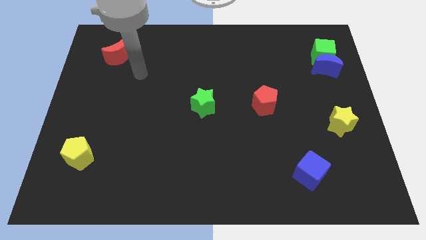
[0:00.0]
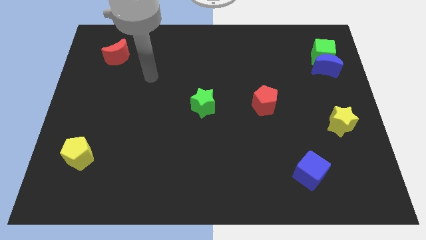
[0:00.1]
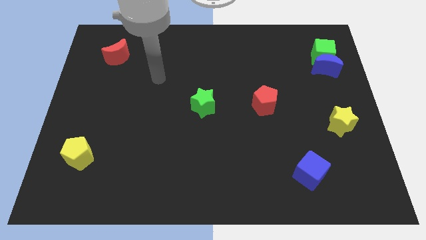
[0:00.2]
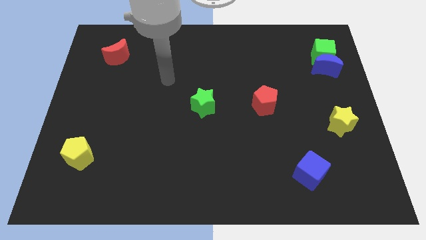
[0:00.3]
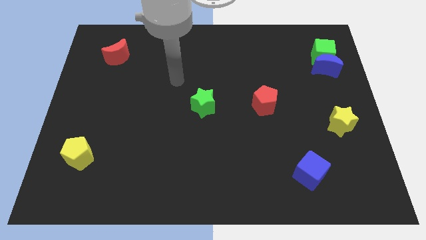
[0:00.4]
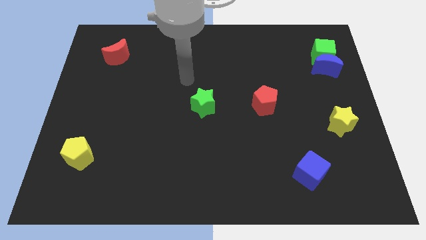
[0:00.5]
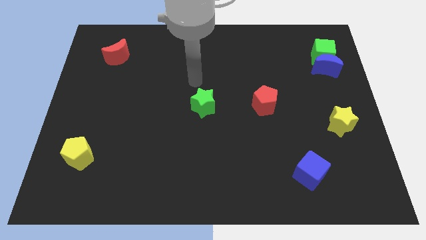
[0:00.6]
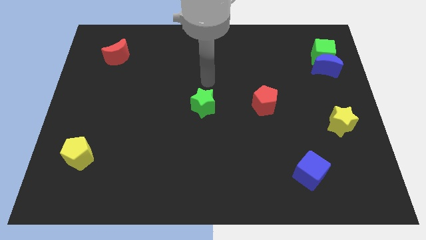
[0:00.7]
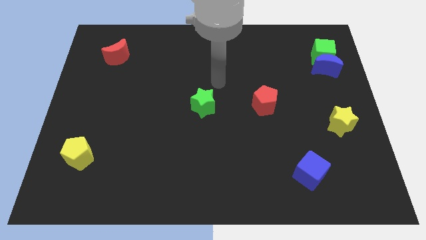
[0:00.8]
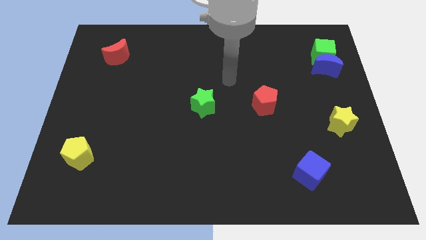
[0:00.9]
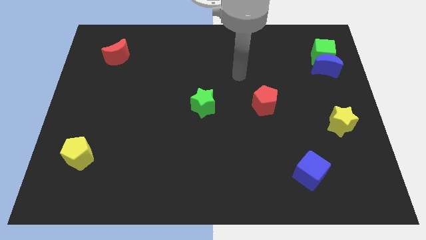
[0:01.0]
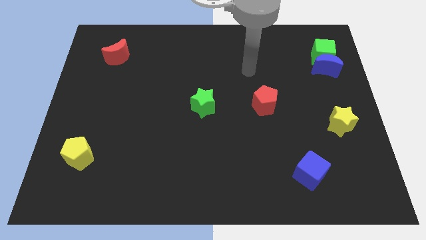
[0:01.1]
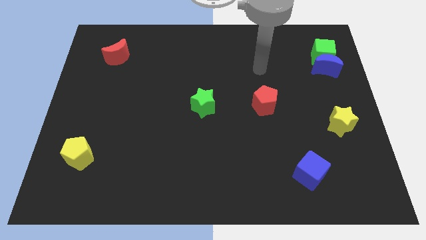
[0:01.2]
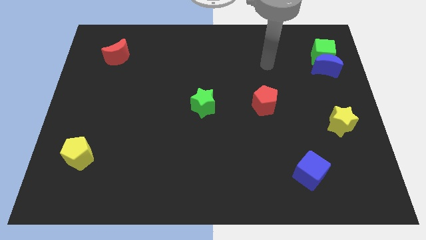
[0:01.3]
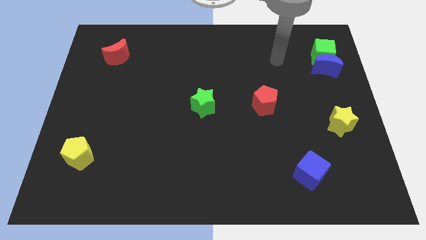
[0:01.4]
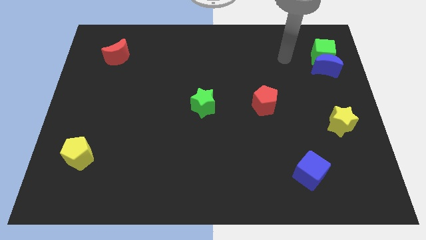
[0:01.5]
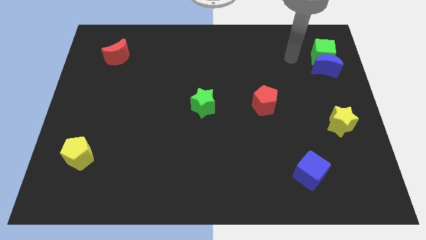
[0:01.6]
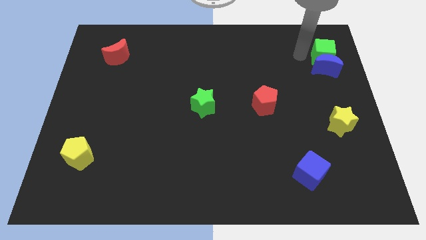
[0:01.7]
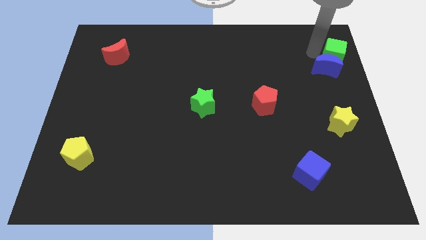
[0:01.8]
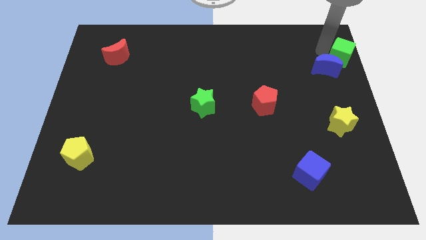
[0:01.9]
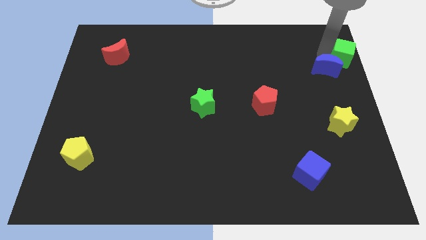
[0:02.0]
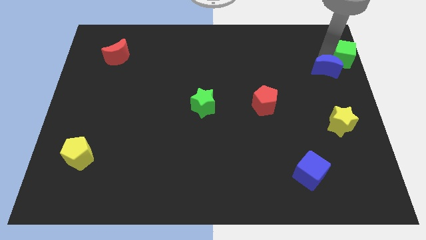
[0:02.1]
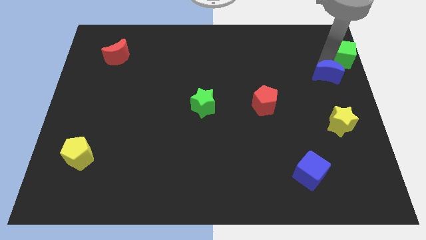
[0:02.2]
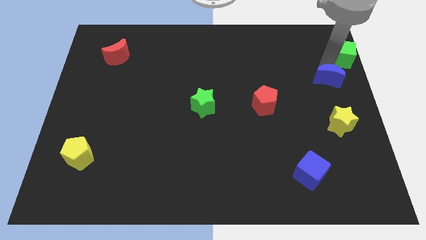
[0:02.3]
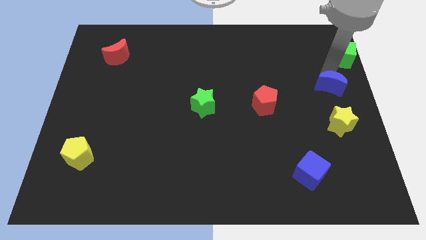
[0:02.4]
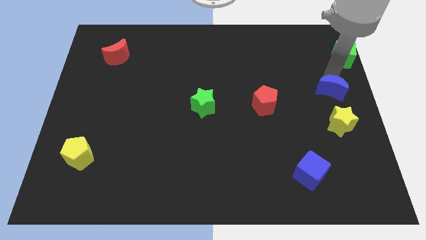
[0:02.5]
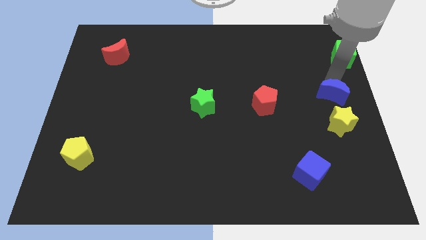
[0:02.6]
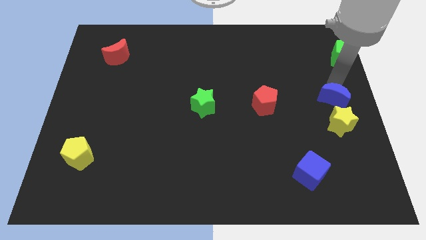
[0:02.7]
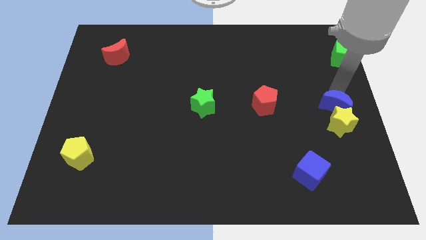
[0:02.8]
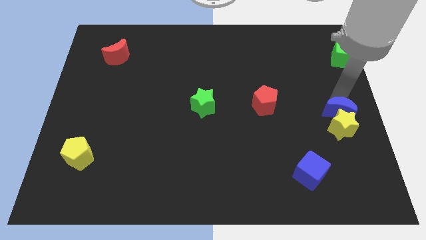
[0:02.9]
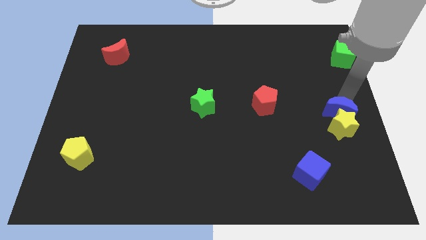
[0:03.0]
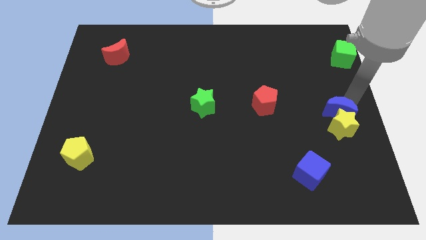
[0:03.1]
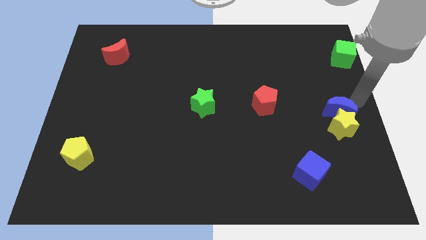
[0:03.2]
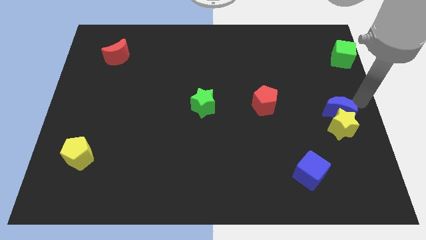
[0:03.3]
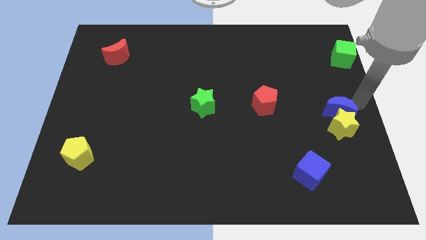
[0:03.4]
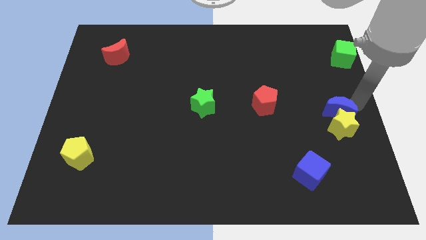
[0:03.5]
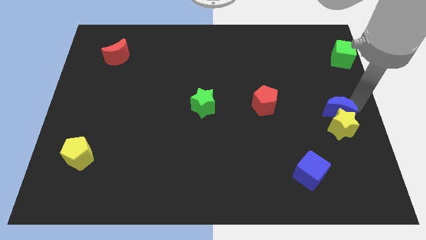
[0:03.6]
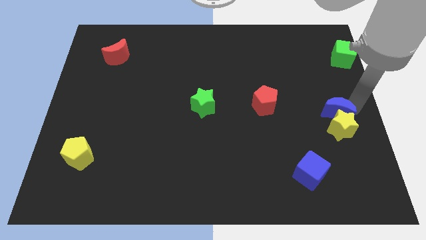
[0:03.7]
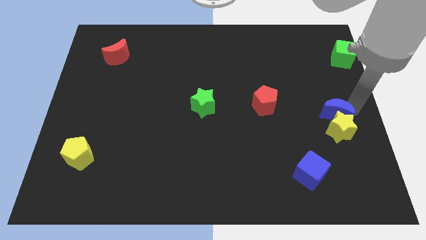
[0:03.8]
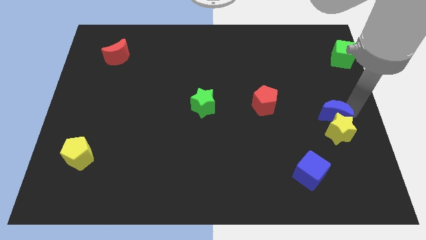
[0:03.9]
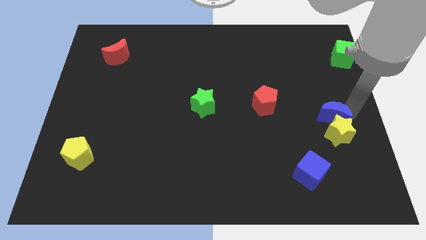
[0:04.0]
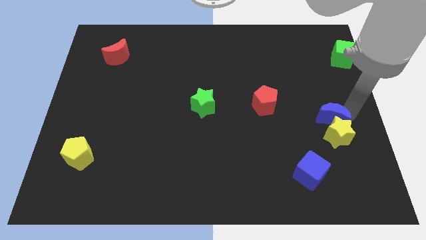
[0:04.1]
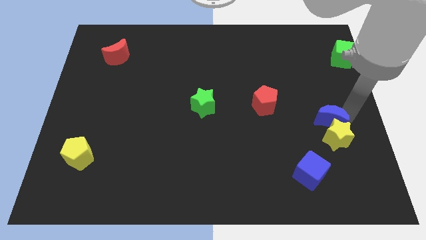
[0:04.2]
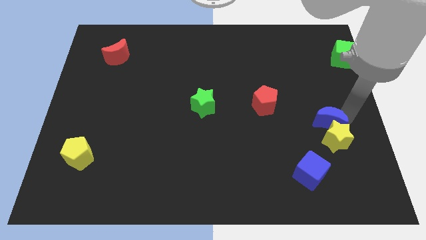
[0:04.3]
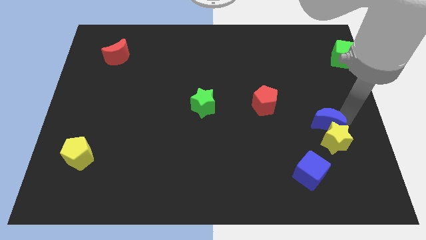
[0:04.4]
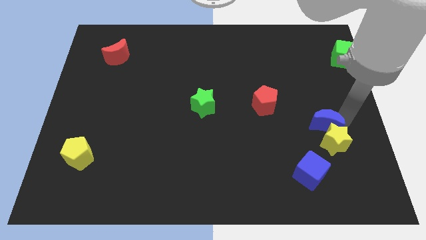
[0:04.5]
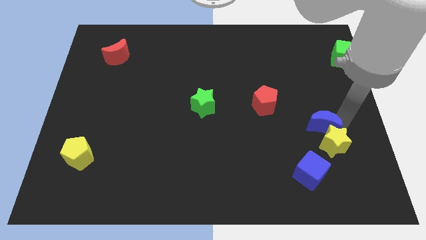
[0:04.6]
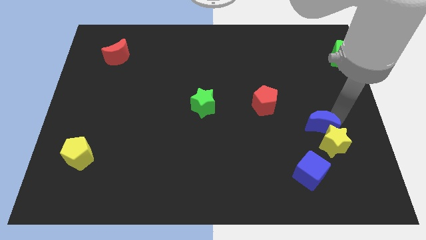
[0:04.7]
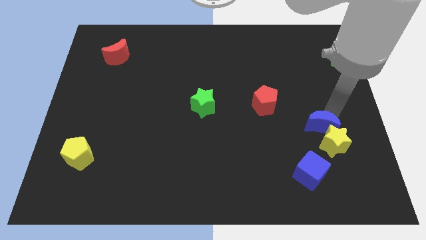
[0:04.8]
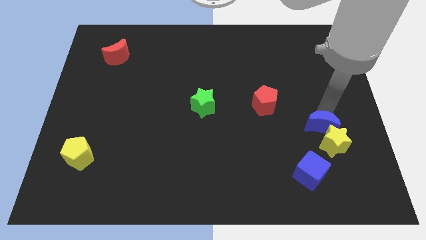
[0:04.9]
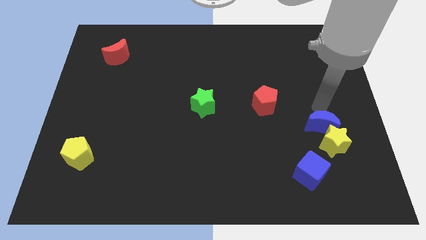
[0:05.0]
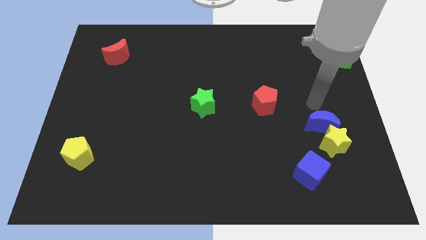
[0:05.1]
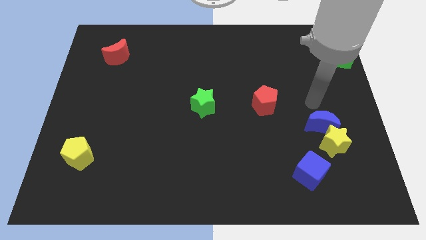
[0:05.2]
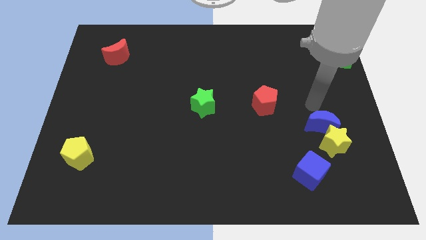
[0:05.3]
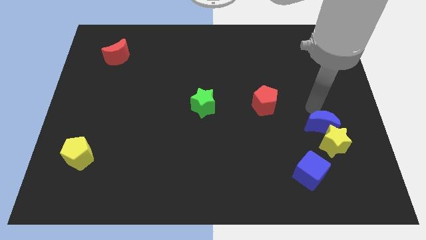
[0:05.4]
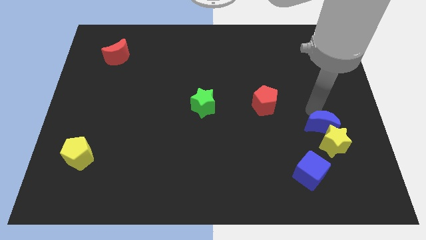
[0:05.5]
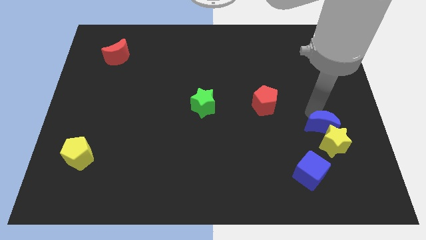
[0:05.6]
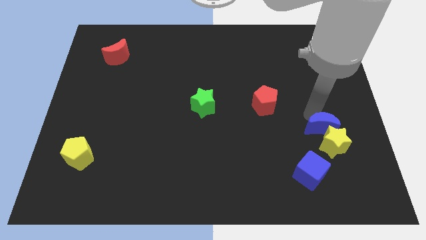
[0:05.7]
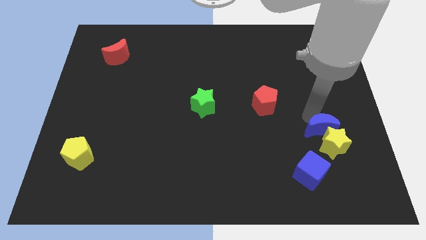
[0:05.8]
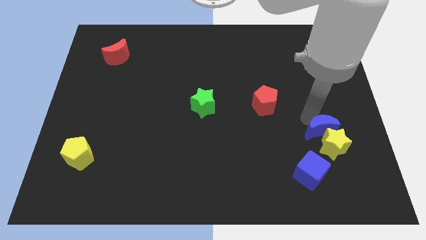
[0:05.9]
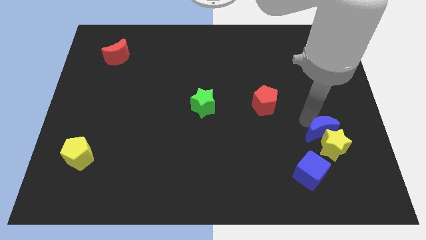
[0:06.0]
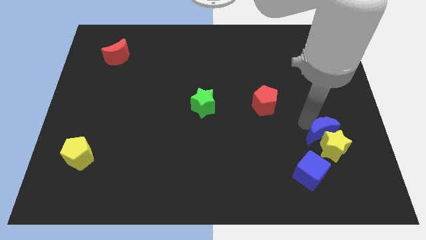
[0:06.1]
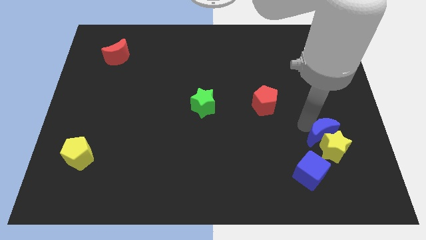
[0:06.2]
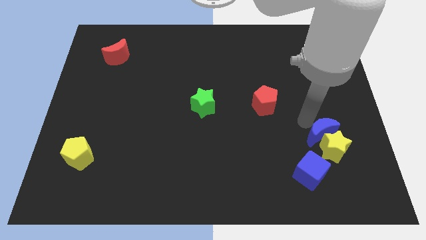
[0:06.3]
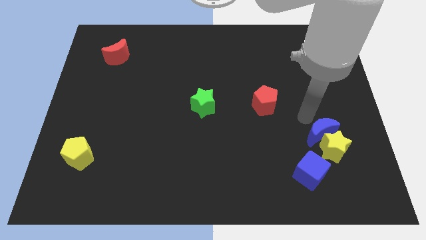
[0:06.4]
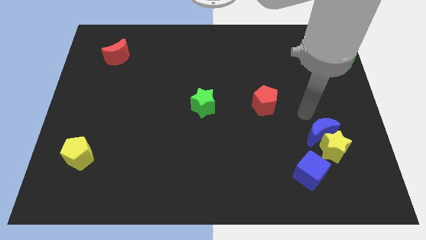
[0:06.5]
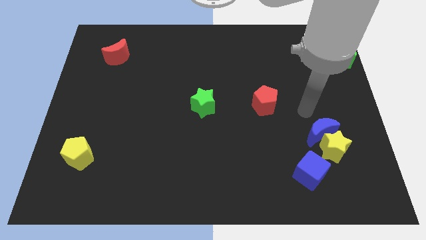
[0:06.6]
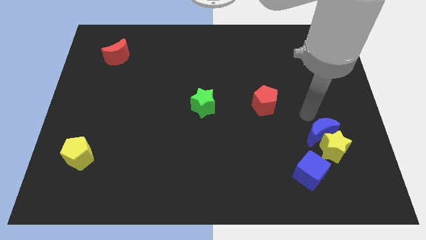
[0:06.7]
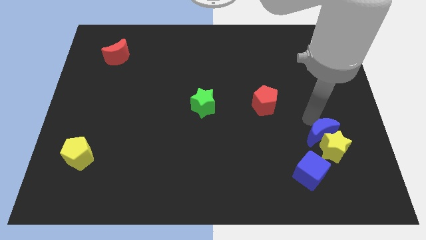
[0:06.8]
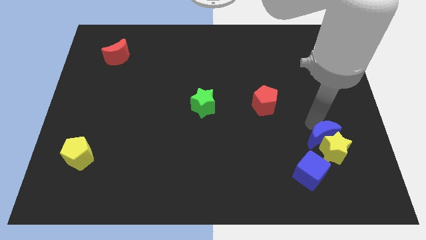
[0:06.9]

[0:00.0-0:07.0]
slide the blue moon down

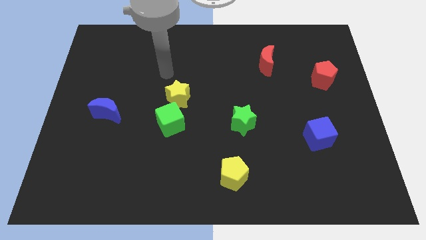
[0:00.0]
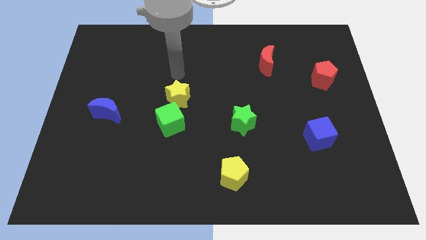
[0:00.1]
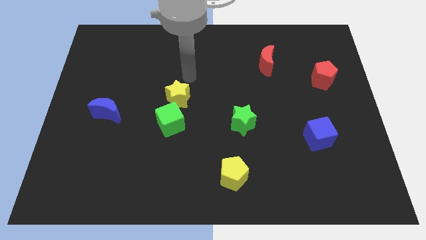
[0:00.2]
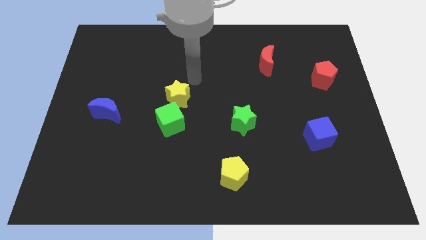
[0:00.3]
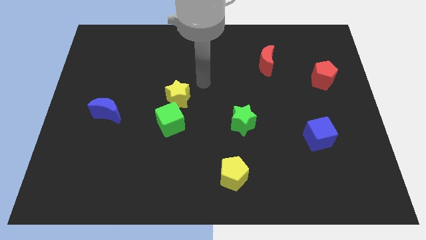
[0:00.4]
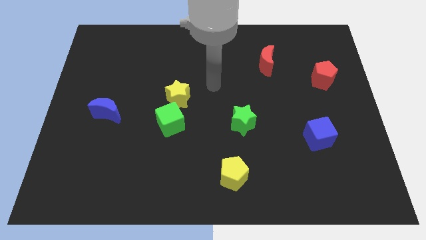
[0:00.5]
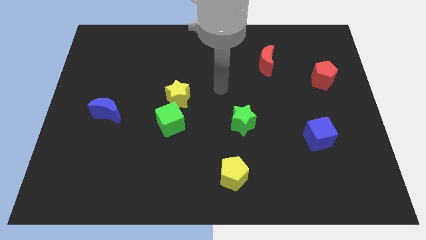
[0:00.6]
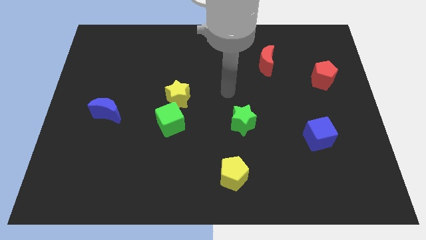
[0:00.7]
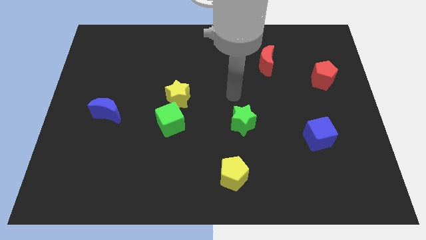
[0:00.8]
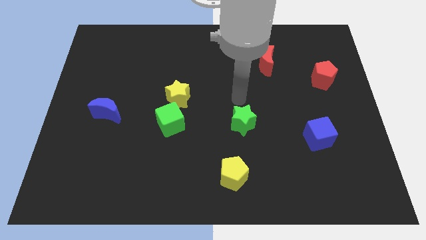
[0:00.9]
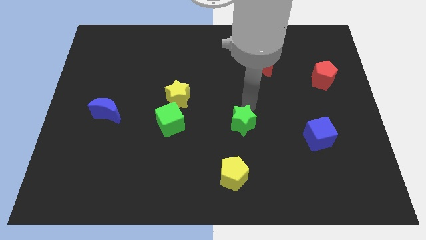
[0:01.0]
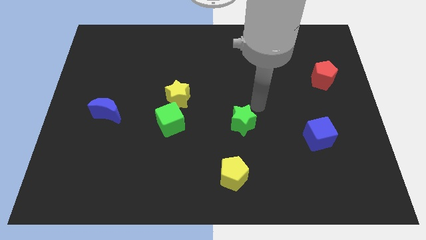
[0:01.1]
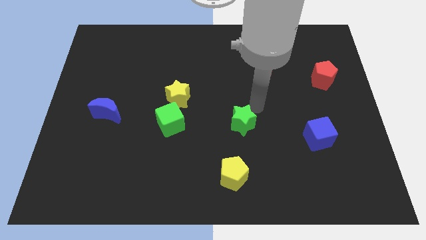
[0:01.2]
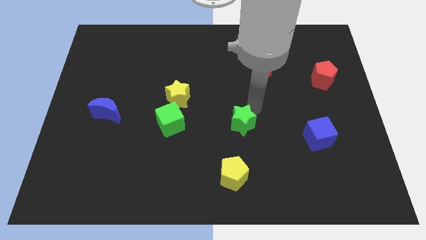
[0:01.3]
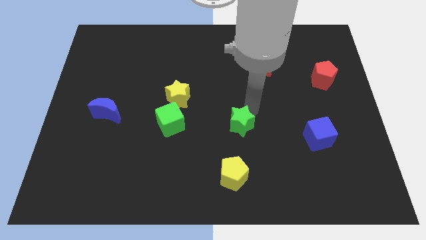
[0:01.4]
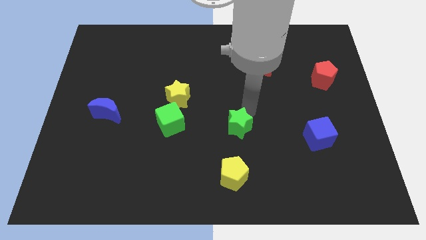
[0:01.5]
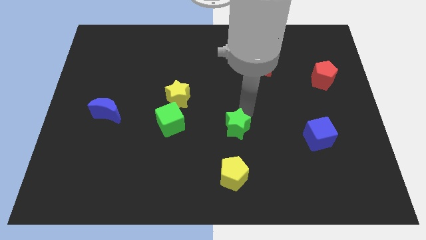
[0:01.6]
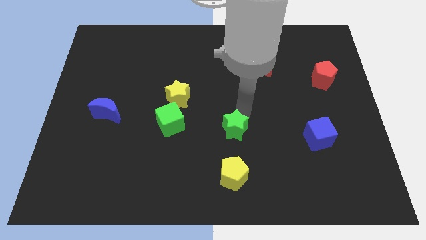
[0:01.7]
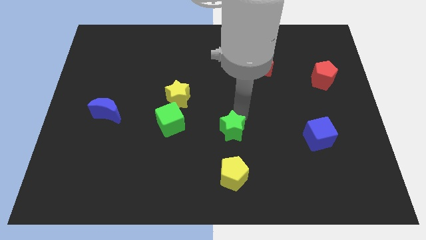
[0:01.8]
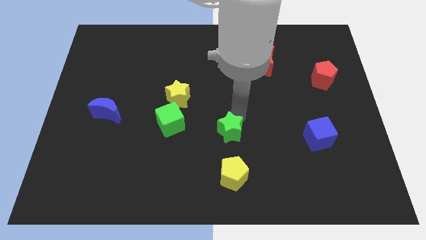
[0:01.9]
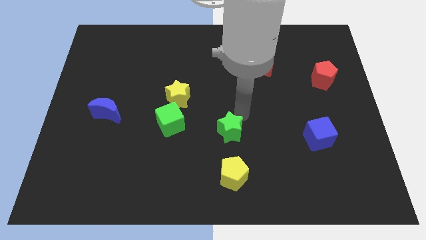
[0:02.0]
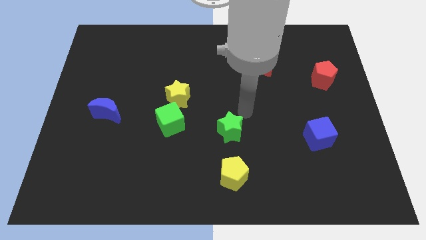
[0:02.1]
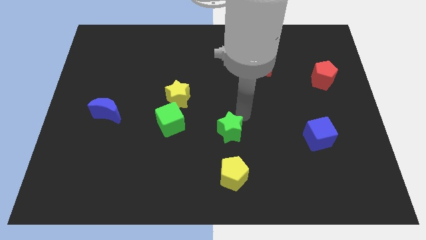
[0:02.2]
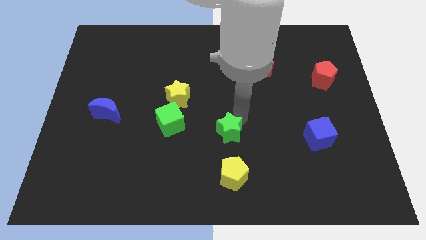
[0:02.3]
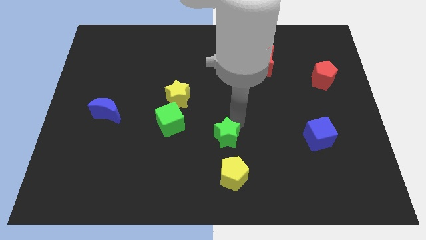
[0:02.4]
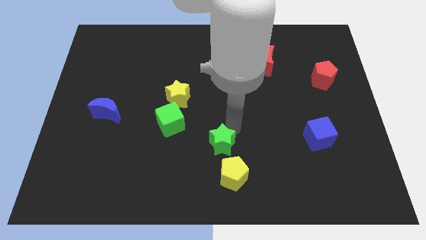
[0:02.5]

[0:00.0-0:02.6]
move the green star diagonally downwards and left a bit
